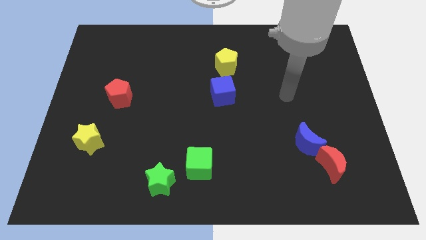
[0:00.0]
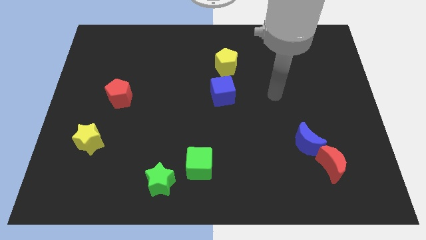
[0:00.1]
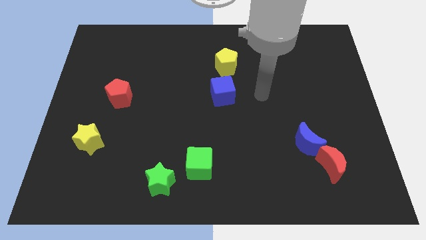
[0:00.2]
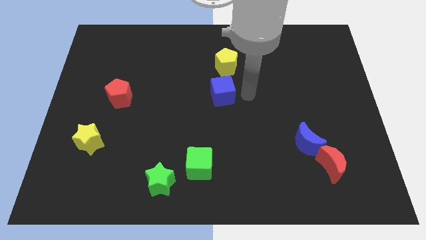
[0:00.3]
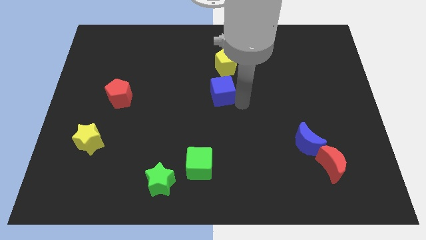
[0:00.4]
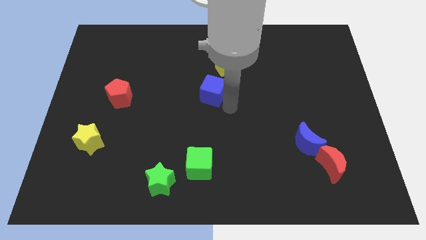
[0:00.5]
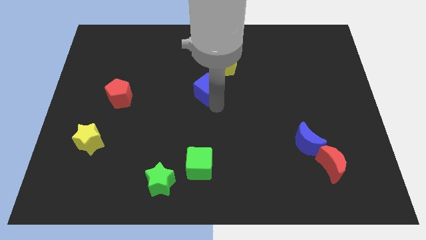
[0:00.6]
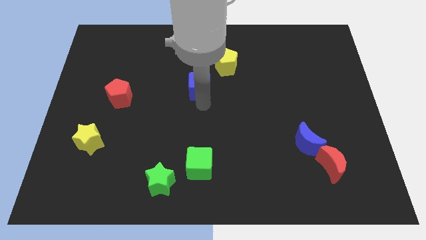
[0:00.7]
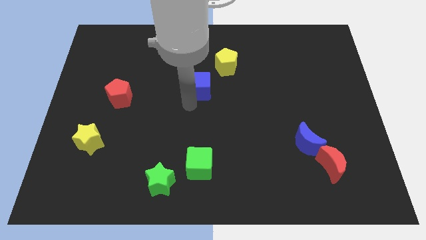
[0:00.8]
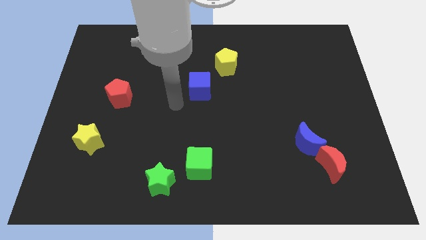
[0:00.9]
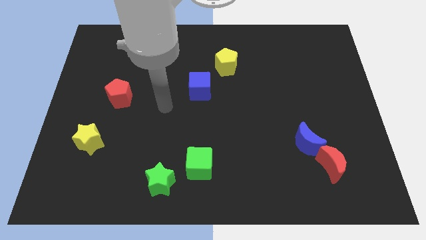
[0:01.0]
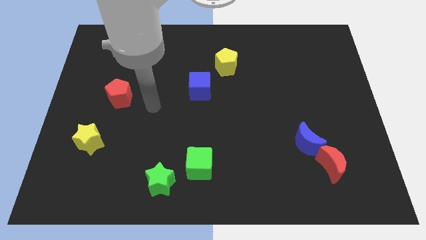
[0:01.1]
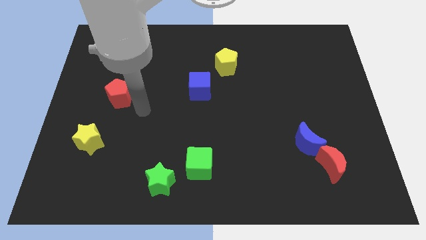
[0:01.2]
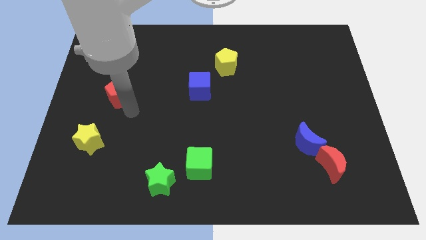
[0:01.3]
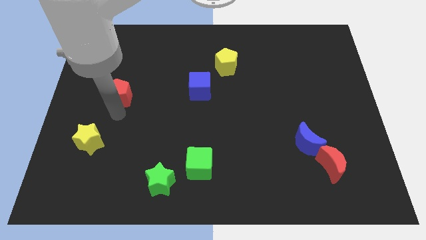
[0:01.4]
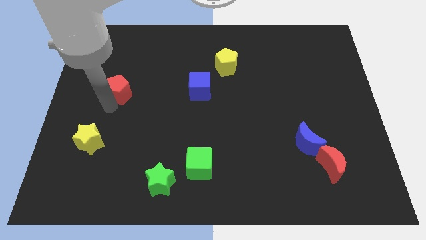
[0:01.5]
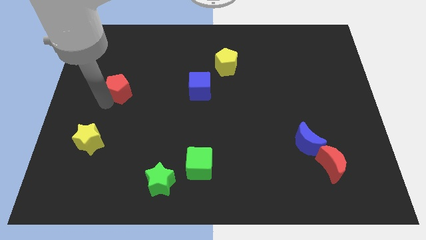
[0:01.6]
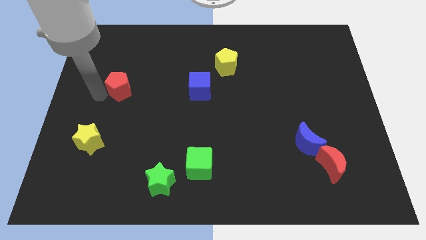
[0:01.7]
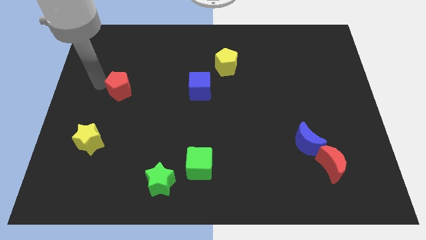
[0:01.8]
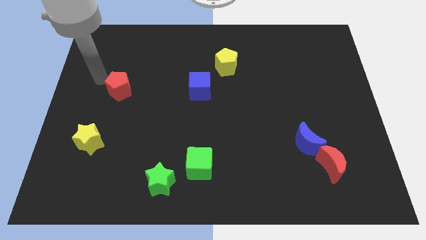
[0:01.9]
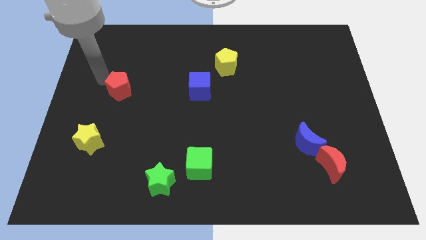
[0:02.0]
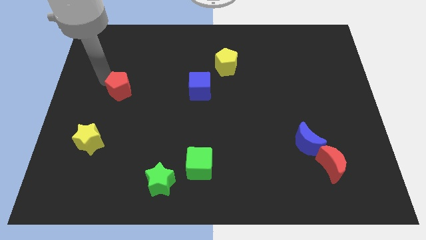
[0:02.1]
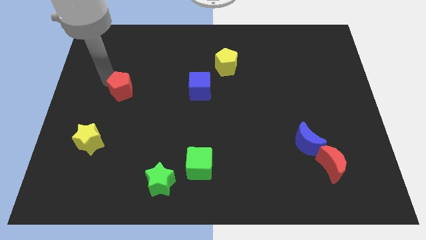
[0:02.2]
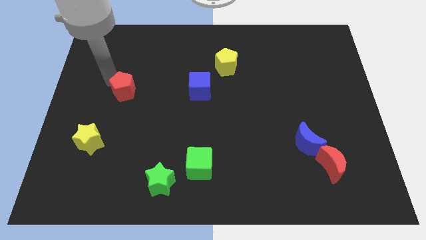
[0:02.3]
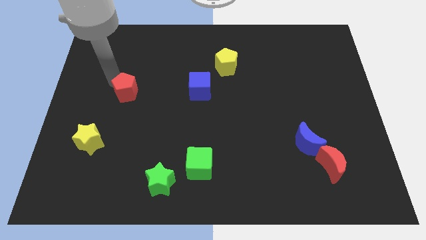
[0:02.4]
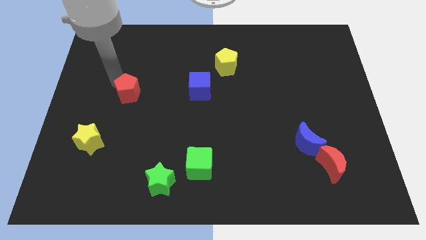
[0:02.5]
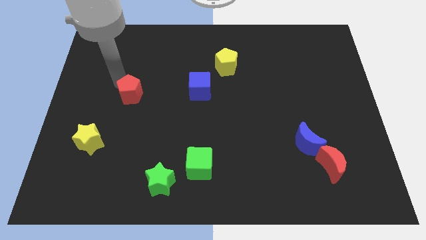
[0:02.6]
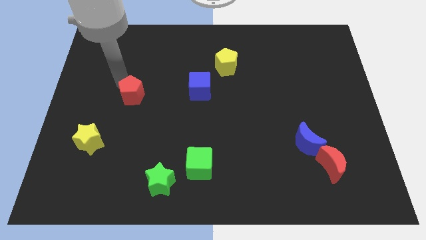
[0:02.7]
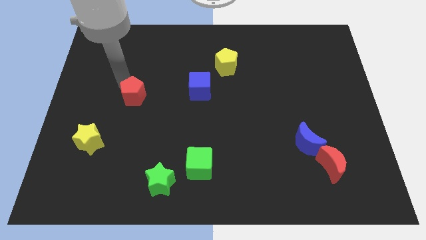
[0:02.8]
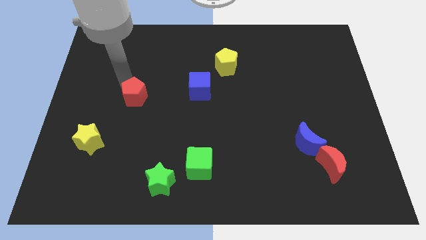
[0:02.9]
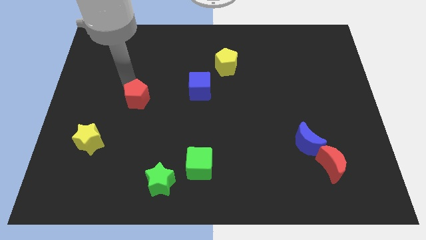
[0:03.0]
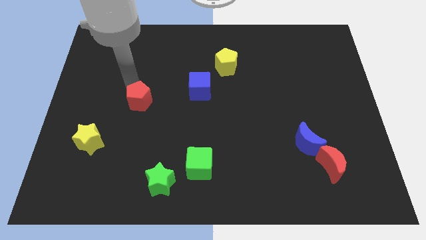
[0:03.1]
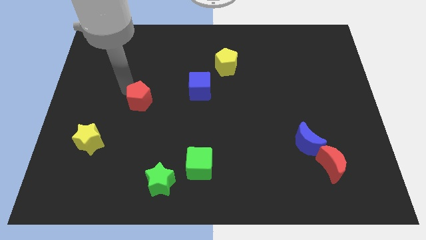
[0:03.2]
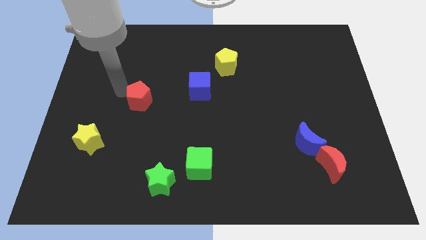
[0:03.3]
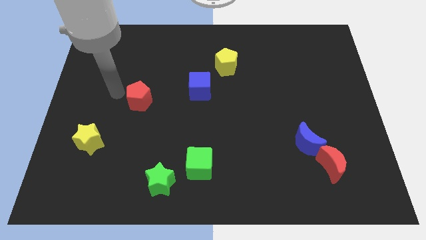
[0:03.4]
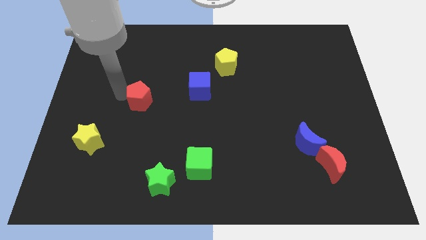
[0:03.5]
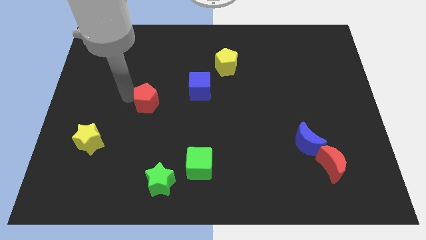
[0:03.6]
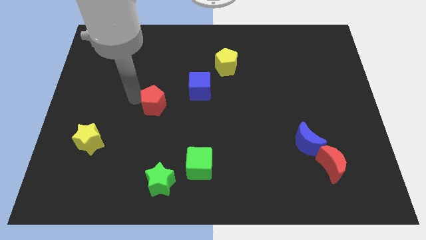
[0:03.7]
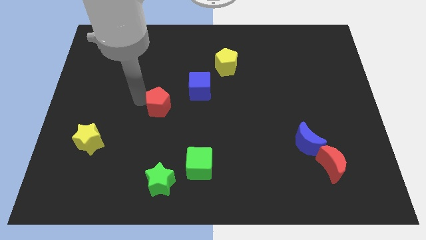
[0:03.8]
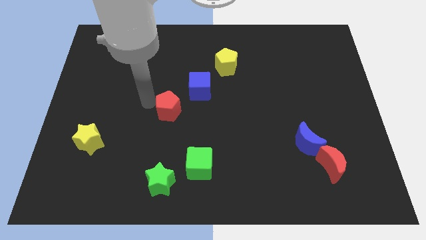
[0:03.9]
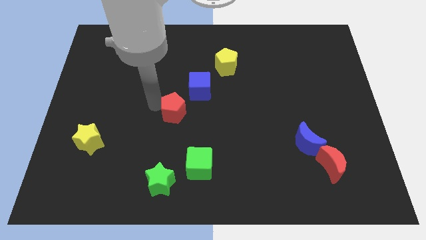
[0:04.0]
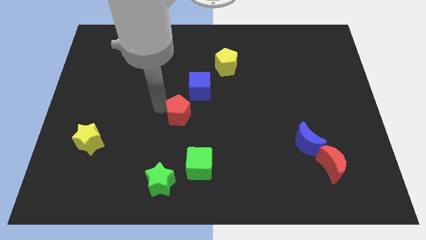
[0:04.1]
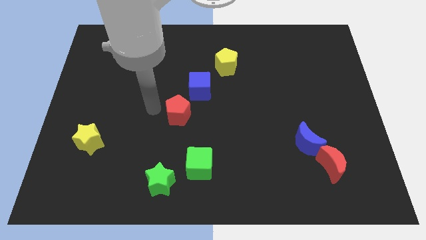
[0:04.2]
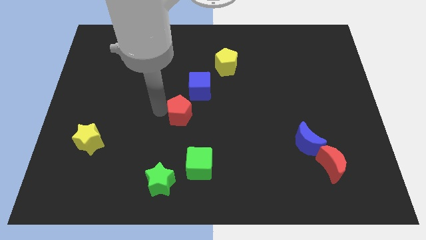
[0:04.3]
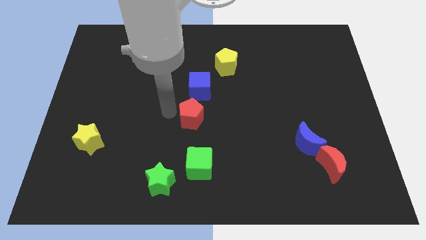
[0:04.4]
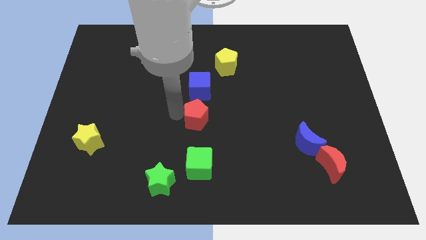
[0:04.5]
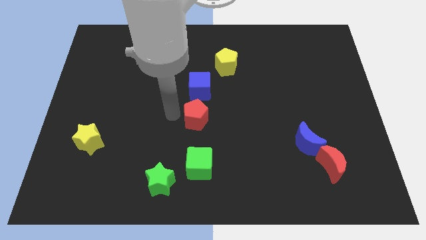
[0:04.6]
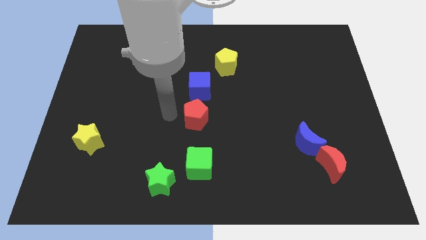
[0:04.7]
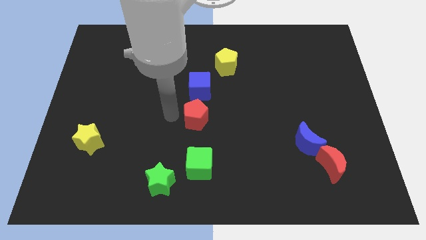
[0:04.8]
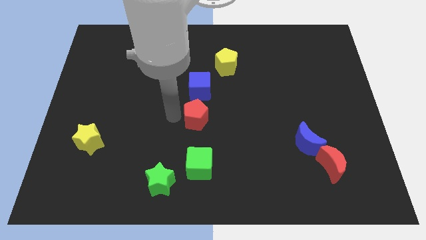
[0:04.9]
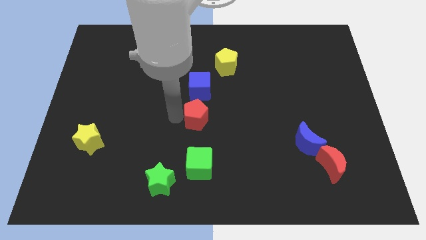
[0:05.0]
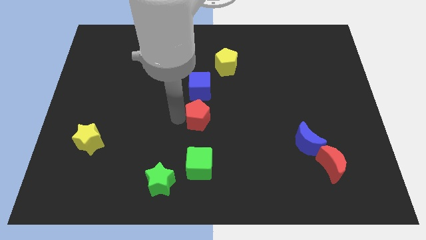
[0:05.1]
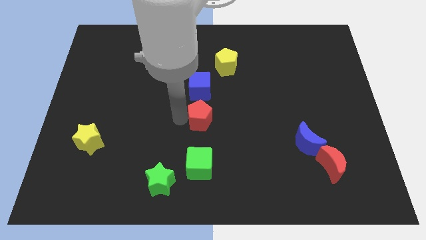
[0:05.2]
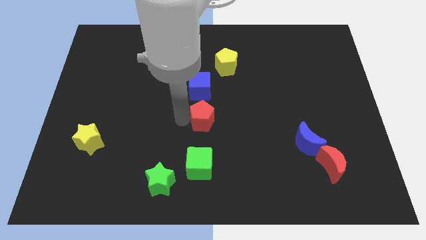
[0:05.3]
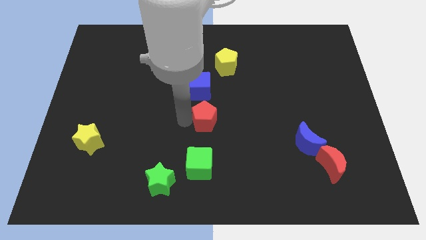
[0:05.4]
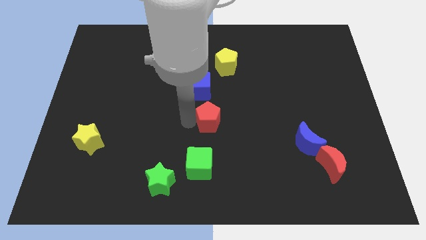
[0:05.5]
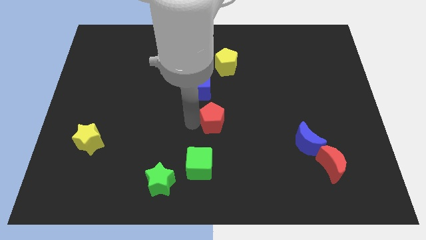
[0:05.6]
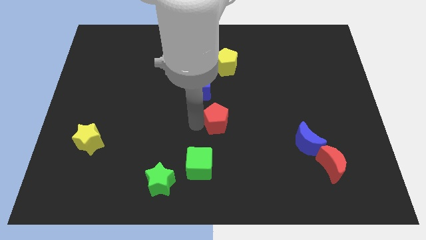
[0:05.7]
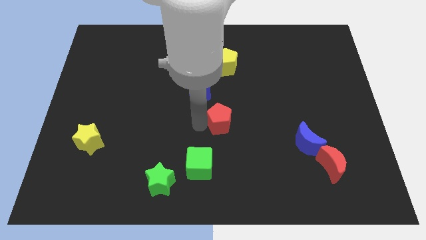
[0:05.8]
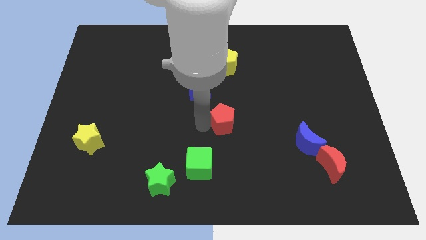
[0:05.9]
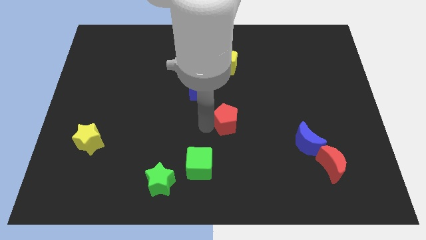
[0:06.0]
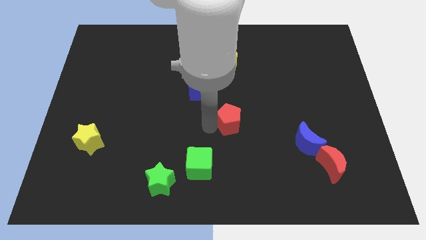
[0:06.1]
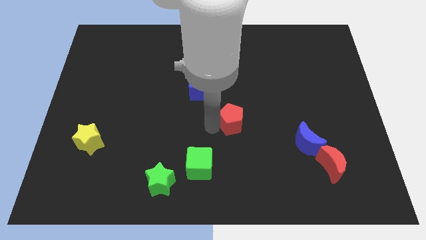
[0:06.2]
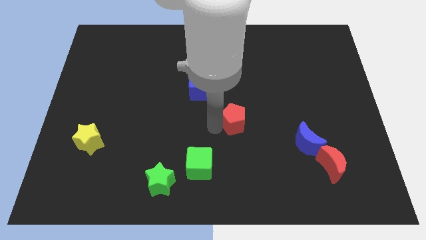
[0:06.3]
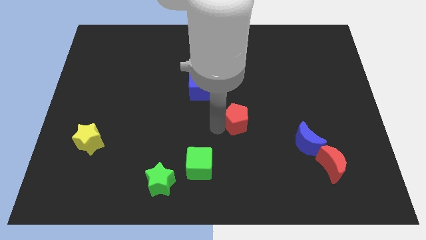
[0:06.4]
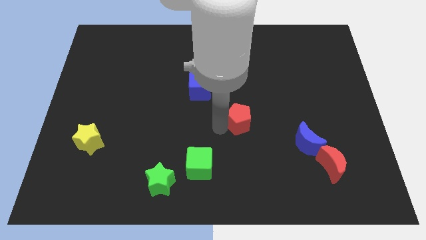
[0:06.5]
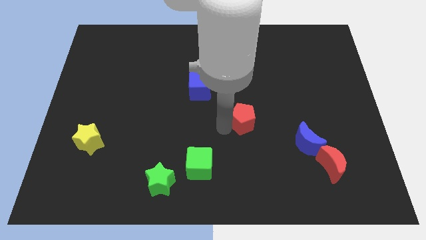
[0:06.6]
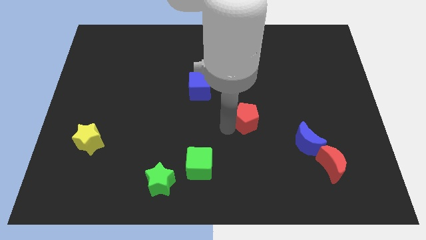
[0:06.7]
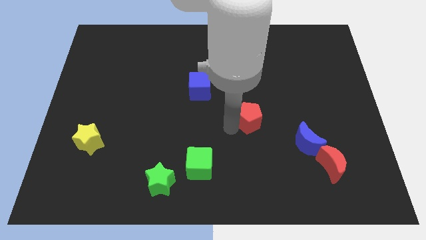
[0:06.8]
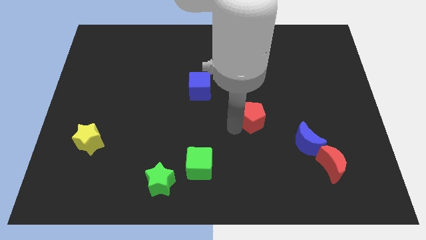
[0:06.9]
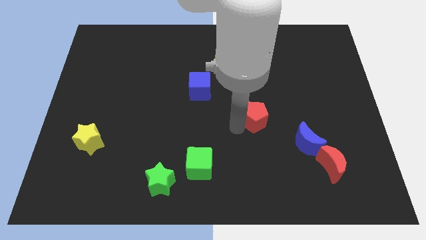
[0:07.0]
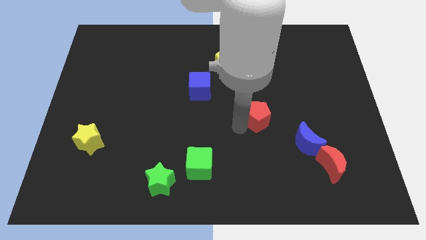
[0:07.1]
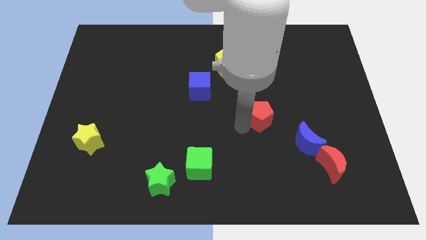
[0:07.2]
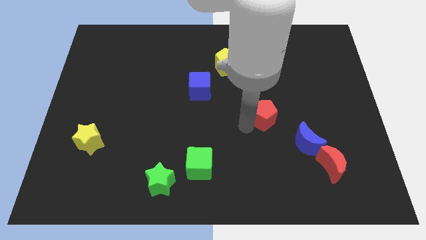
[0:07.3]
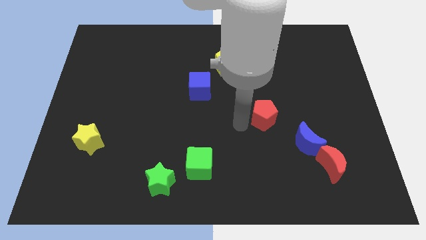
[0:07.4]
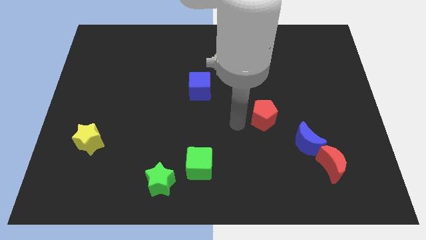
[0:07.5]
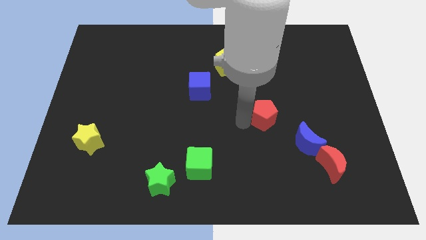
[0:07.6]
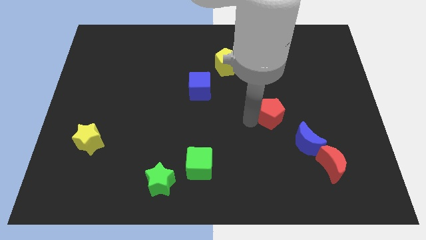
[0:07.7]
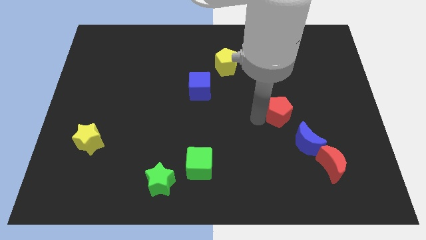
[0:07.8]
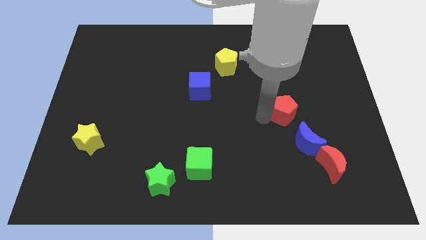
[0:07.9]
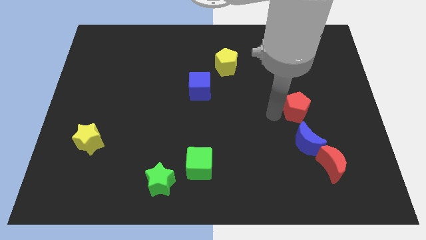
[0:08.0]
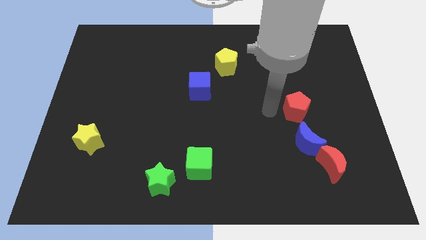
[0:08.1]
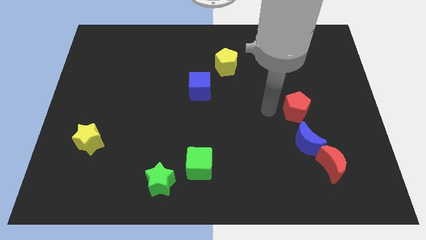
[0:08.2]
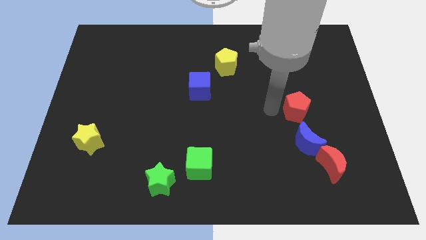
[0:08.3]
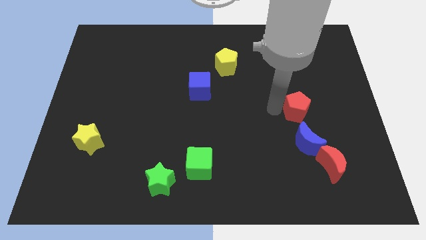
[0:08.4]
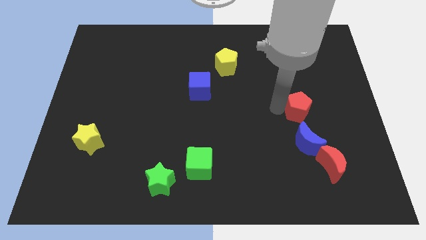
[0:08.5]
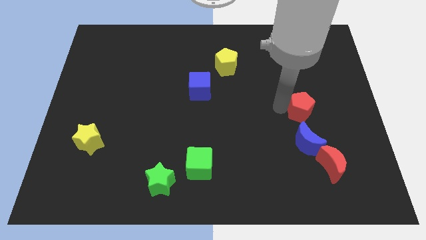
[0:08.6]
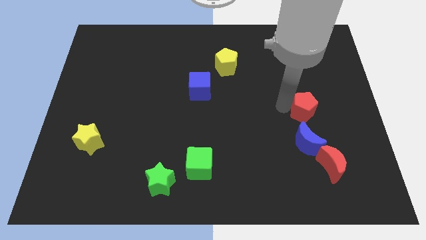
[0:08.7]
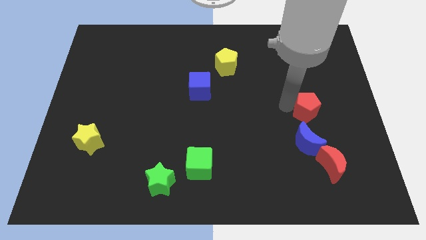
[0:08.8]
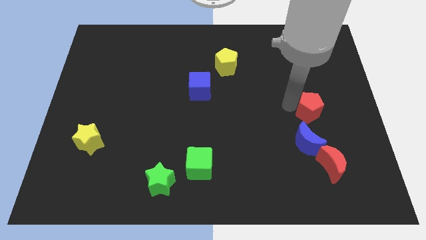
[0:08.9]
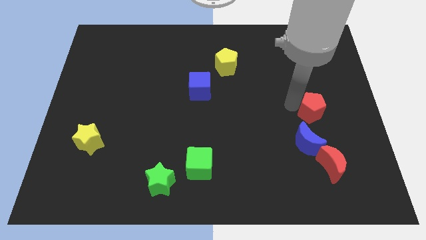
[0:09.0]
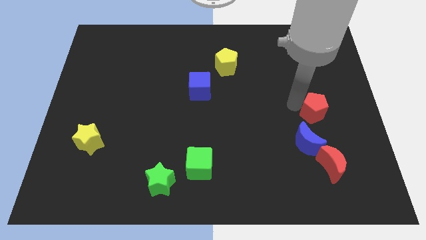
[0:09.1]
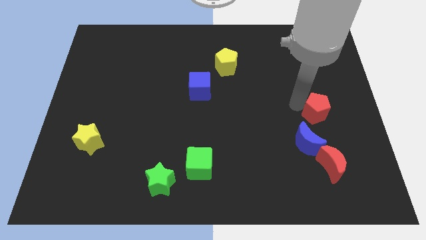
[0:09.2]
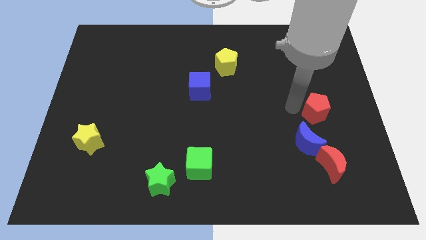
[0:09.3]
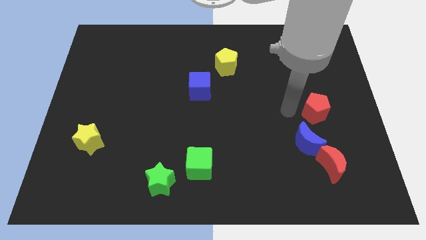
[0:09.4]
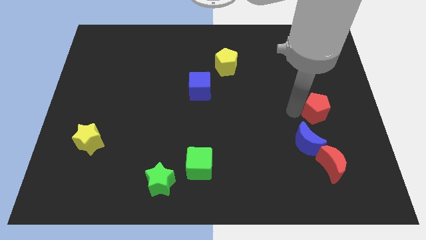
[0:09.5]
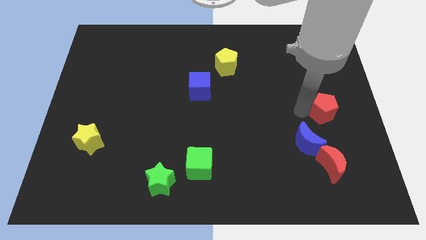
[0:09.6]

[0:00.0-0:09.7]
slide the red pentagon to the right side of the board
